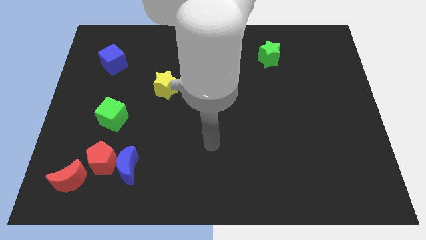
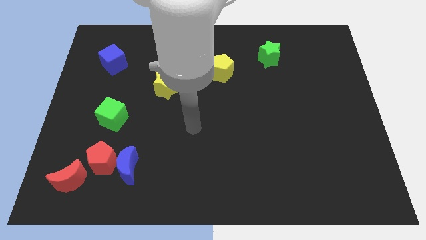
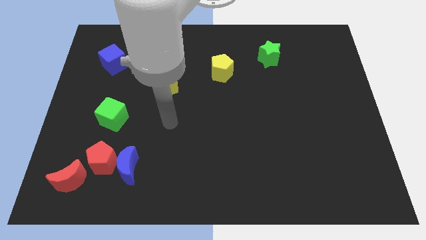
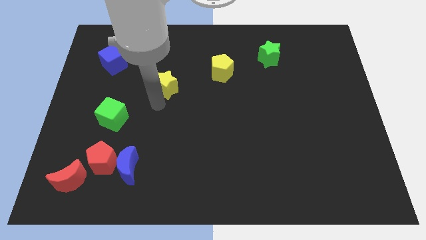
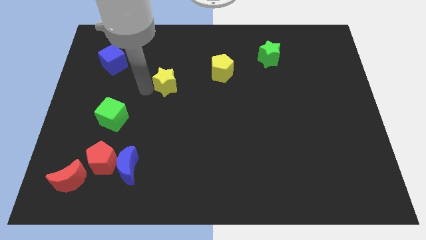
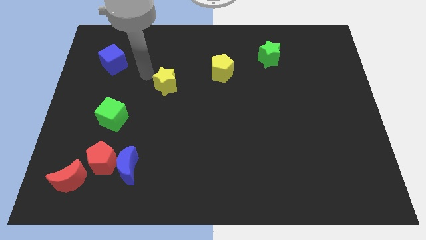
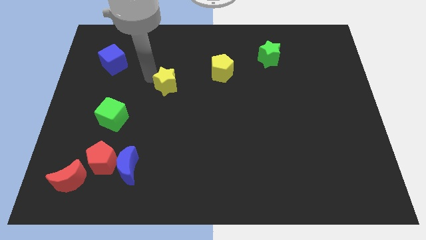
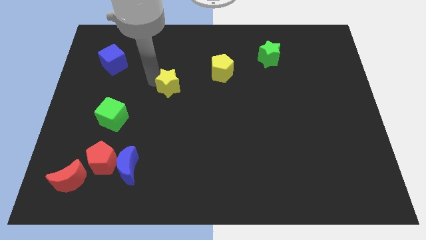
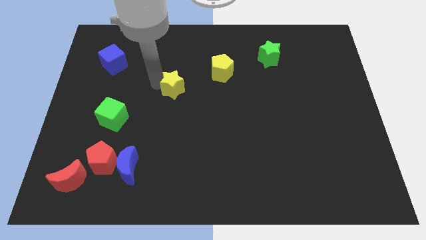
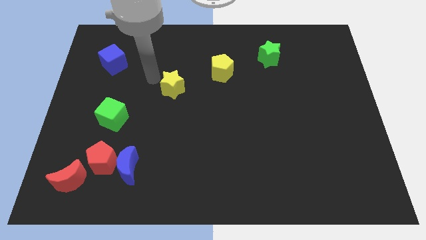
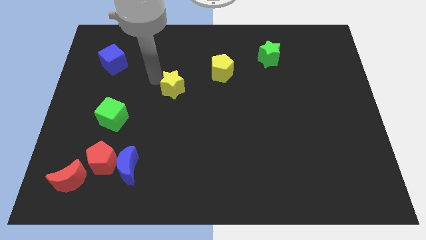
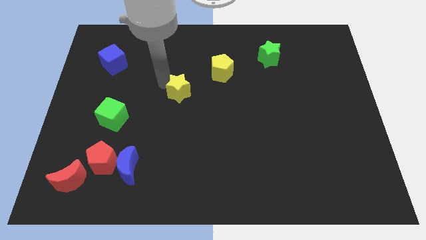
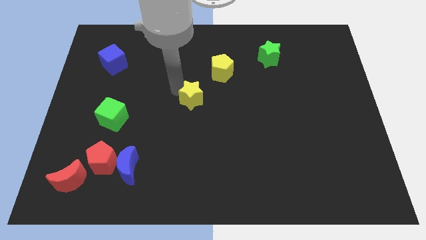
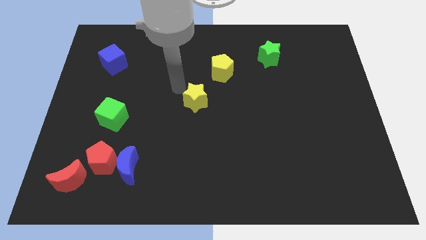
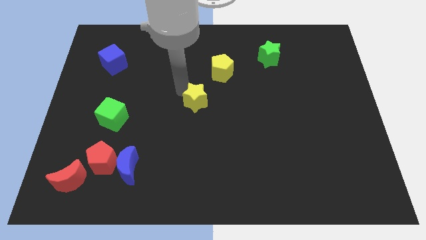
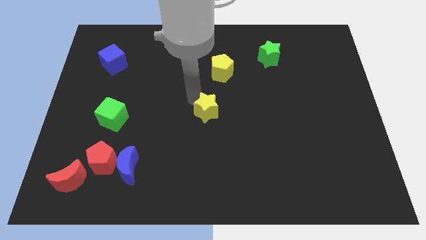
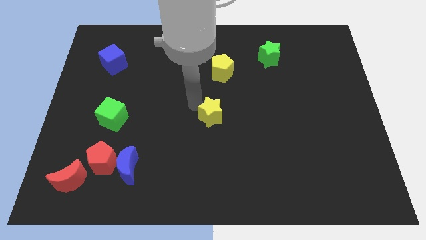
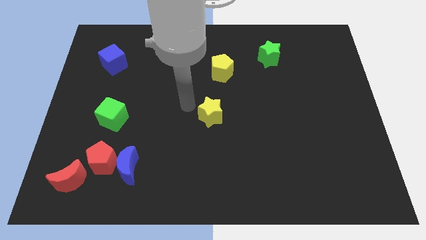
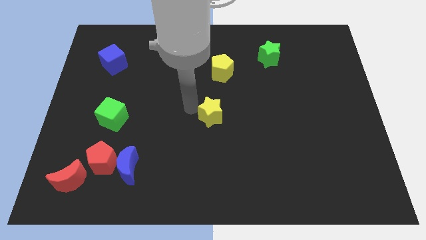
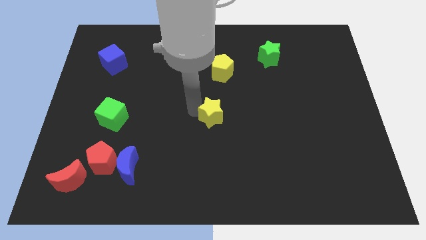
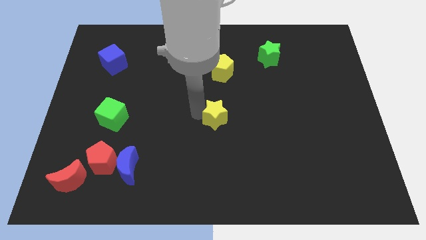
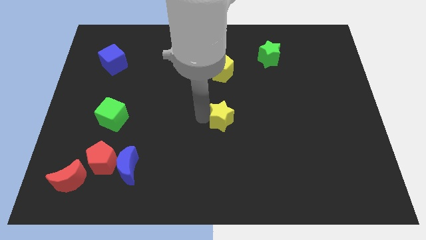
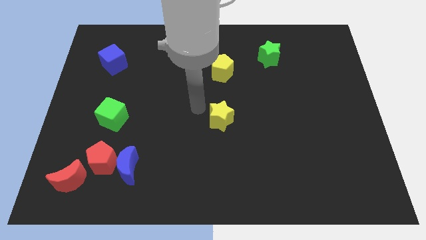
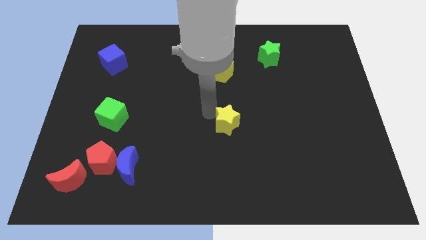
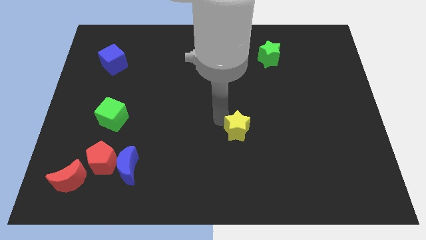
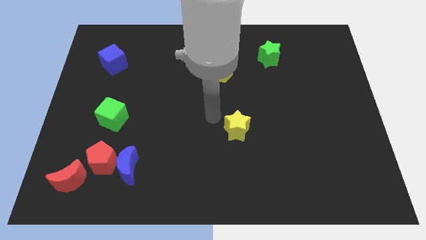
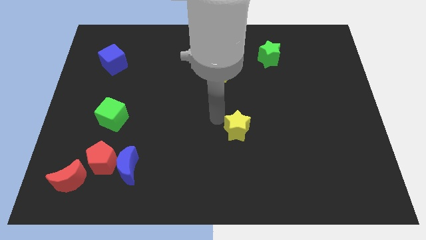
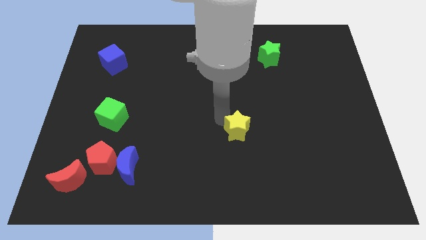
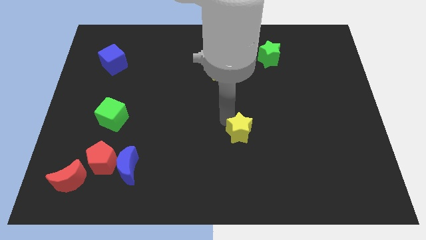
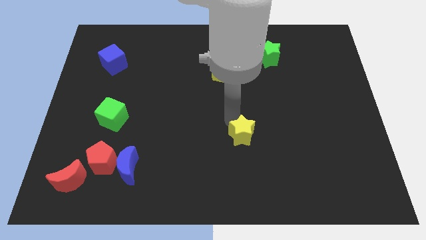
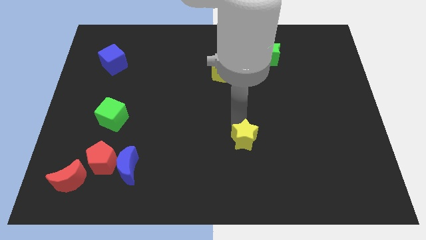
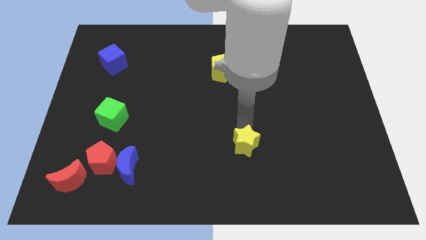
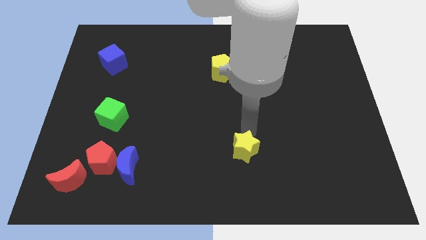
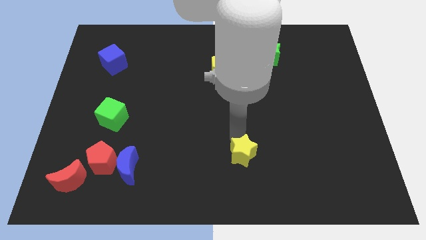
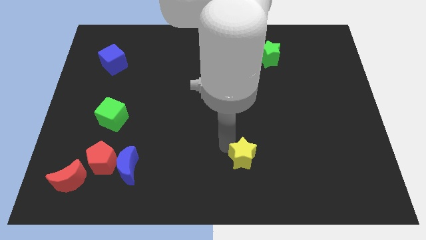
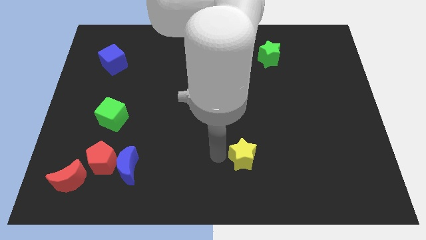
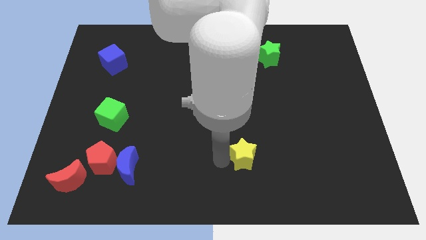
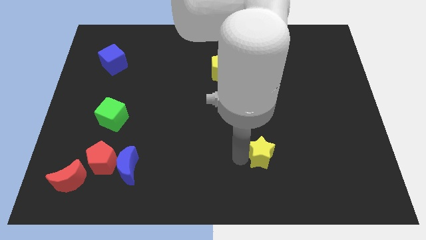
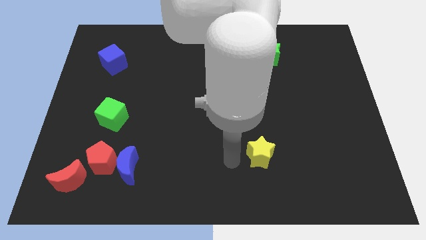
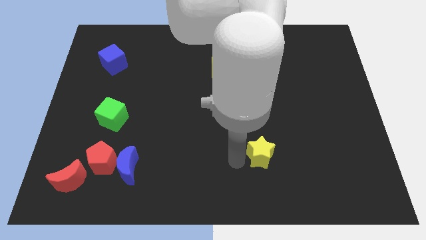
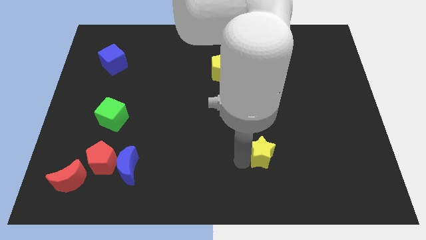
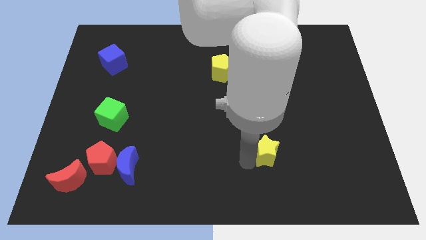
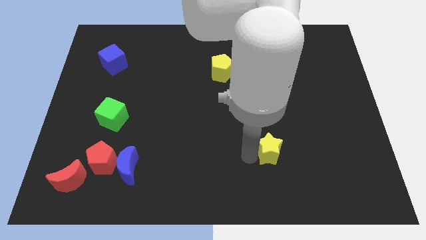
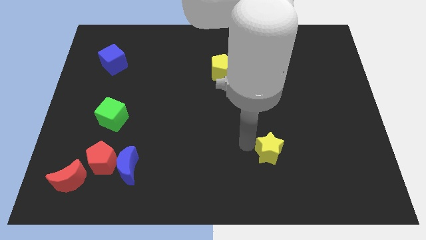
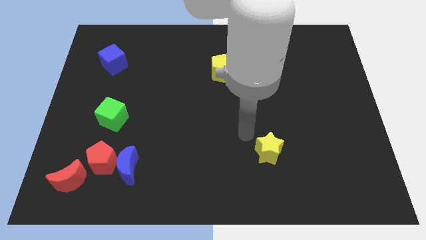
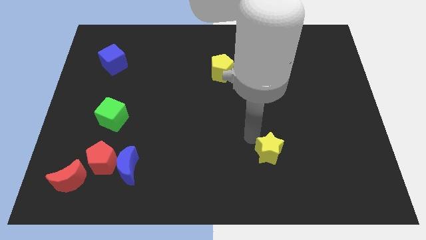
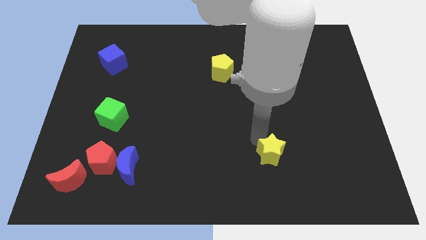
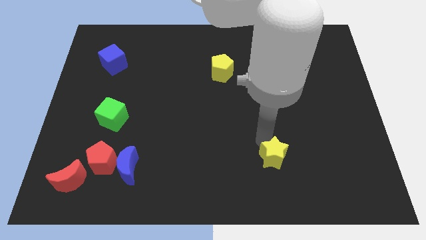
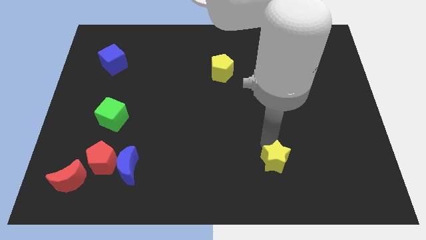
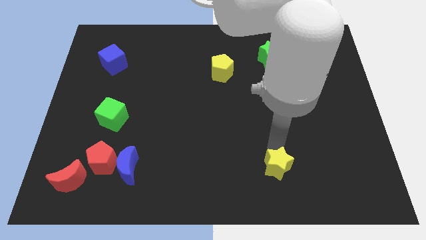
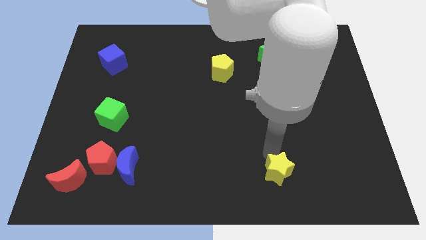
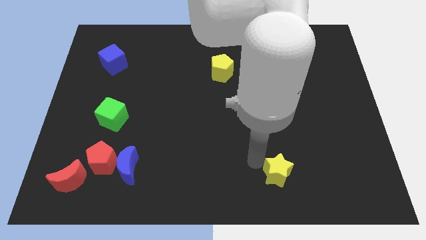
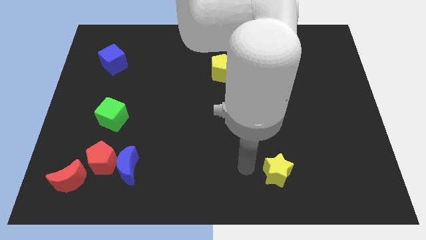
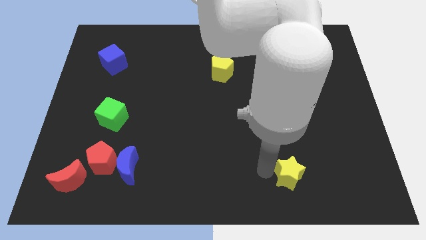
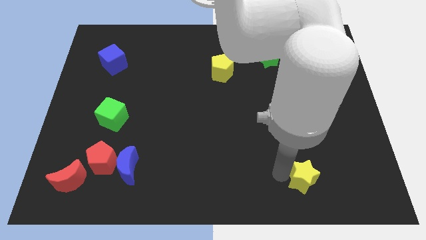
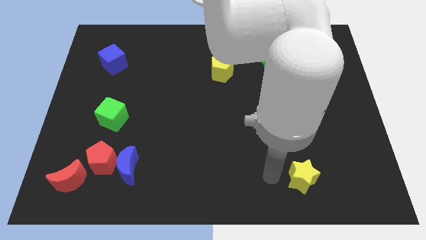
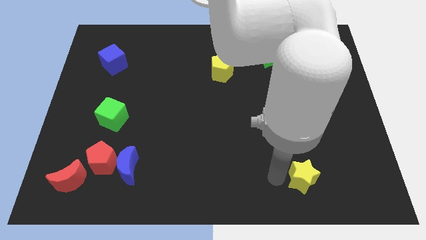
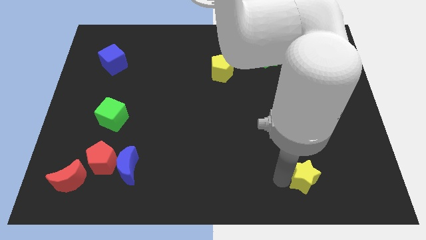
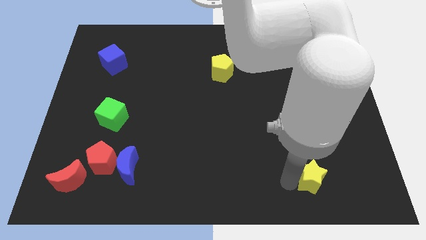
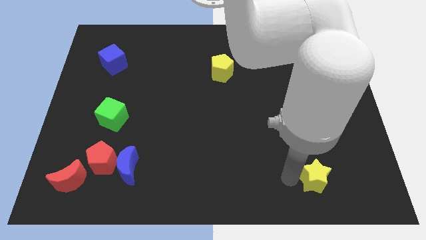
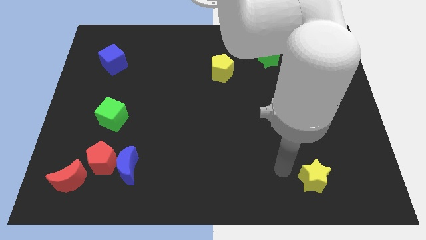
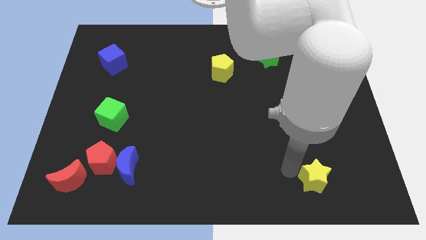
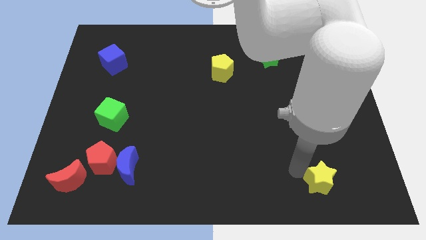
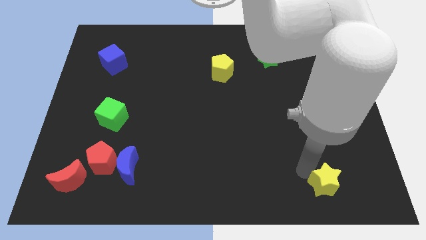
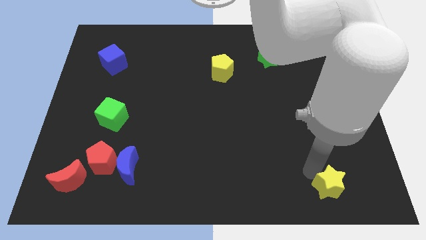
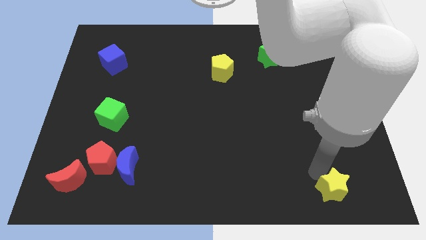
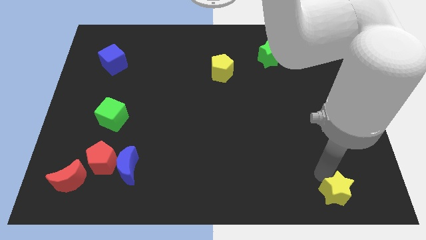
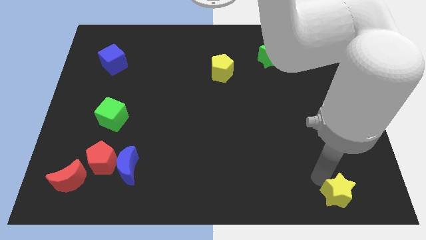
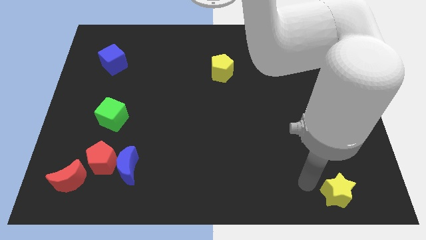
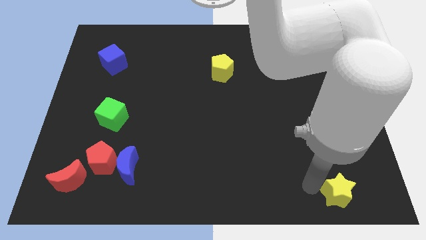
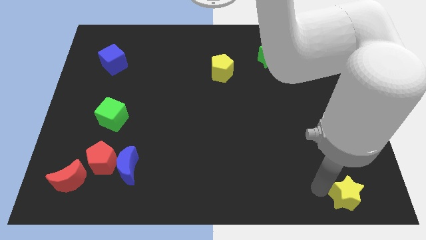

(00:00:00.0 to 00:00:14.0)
slide the yellow star to the bottom right corner

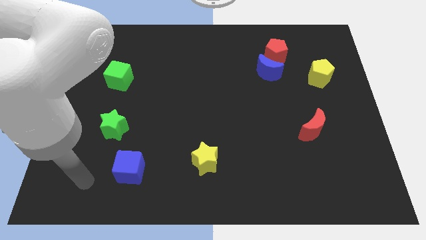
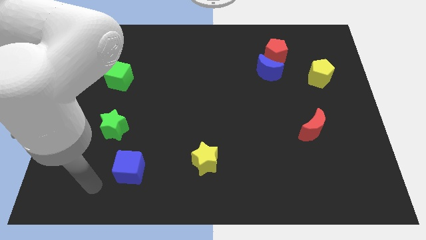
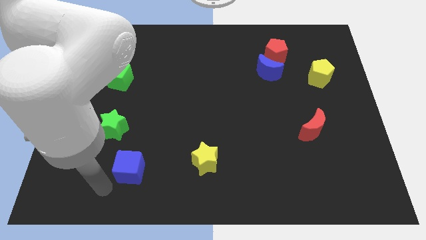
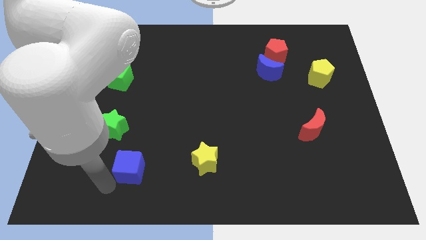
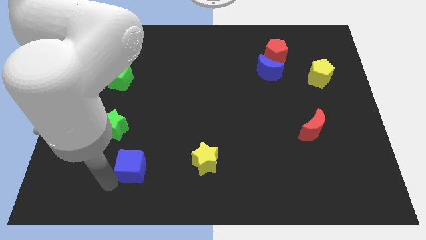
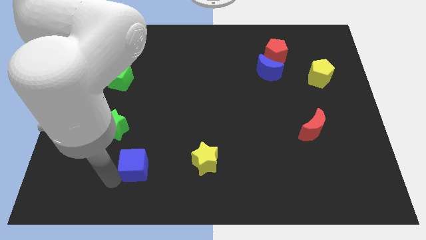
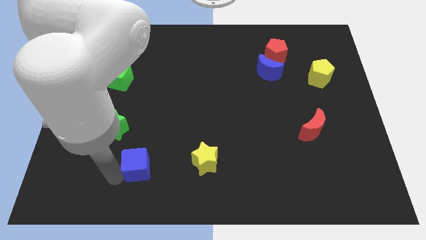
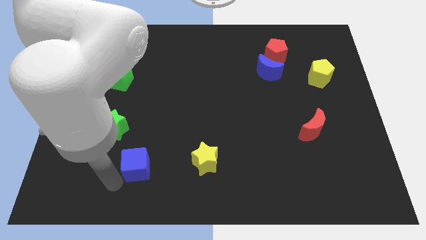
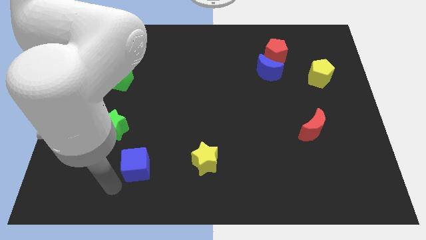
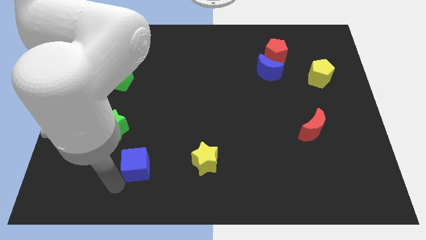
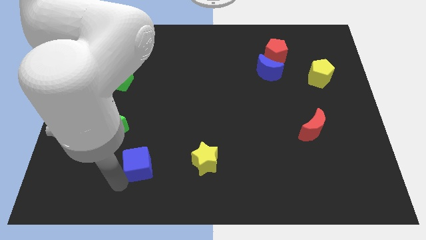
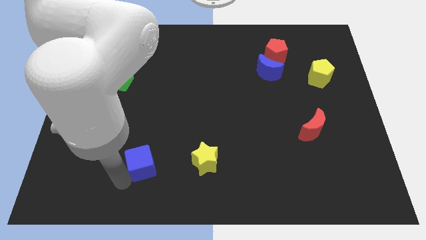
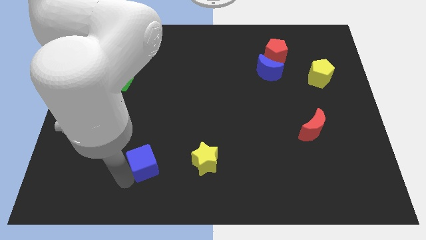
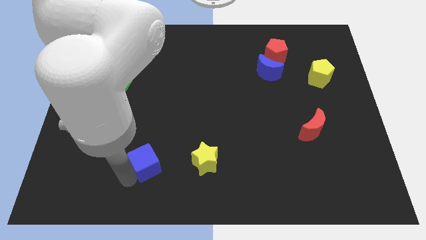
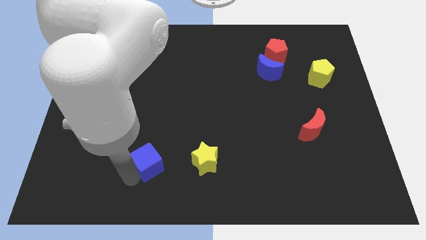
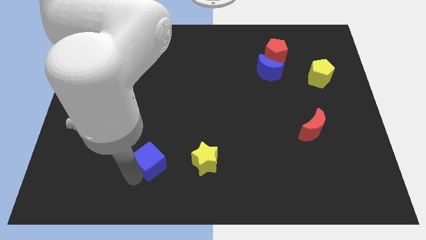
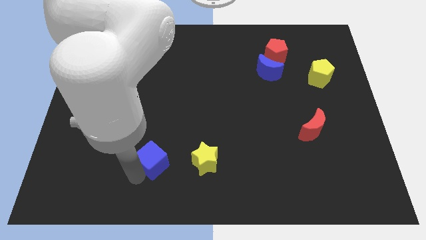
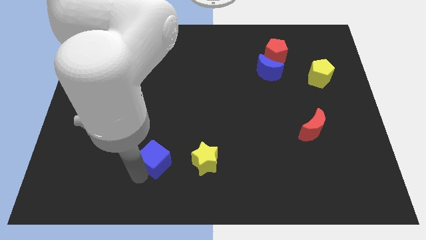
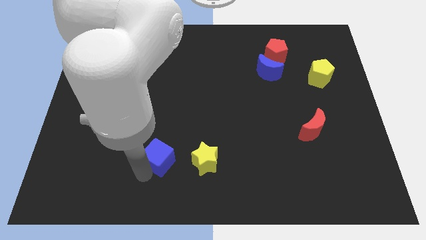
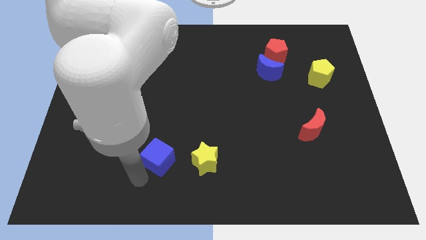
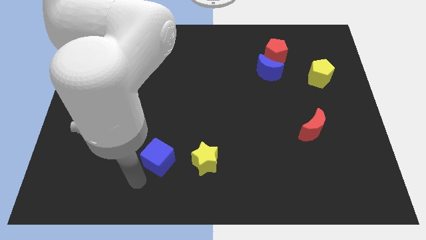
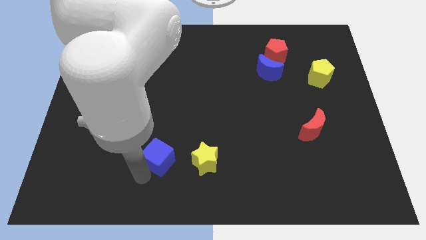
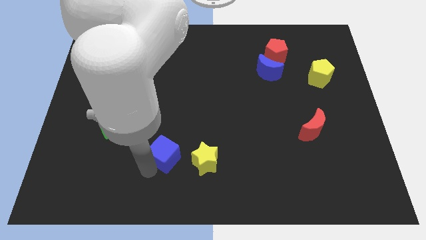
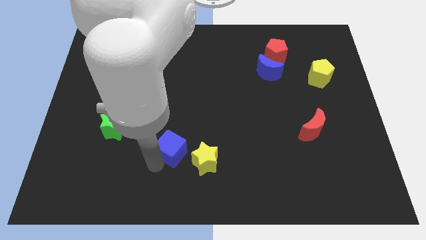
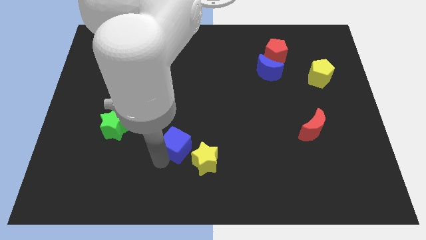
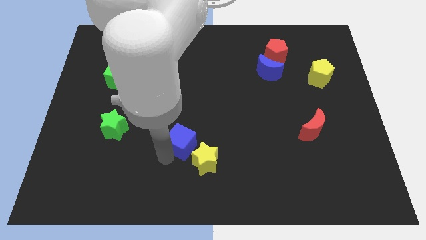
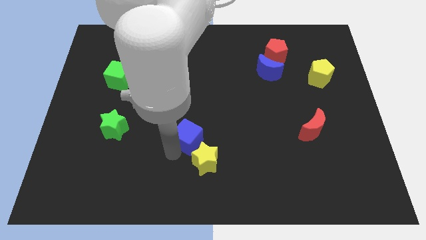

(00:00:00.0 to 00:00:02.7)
slide the blue cube to the middle
